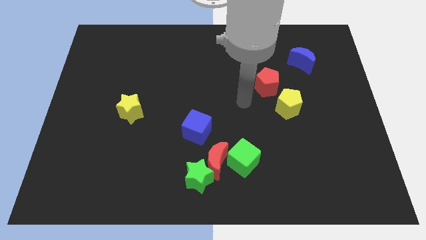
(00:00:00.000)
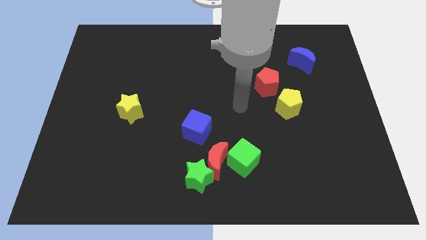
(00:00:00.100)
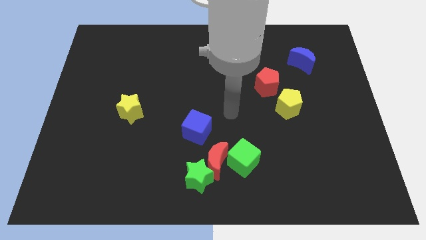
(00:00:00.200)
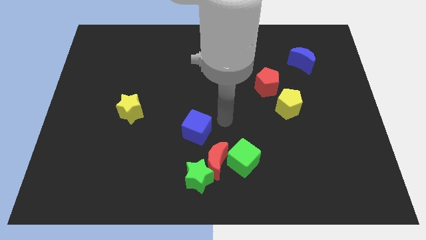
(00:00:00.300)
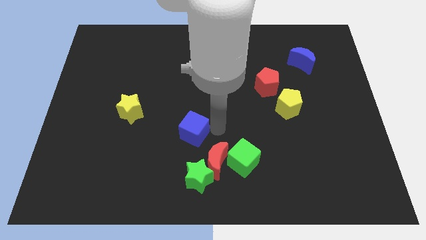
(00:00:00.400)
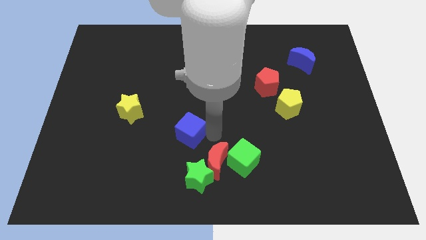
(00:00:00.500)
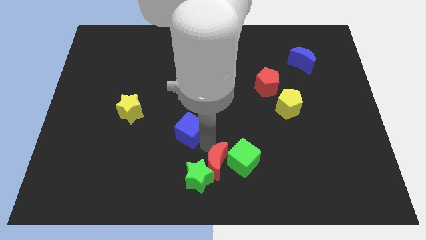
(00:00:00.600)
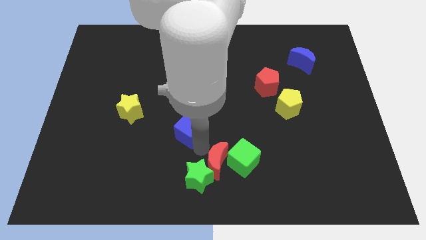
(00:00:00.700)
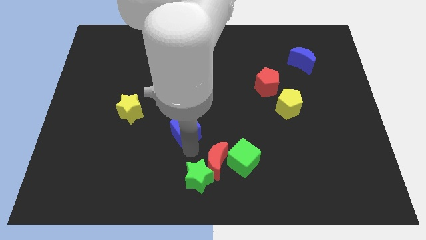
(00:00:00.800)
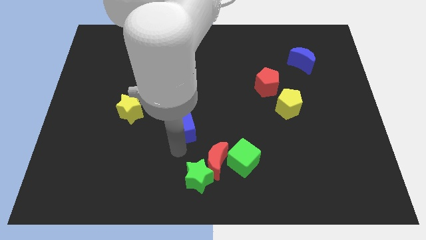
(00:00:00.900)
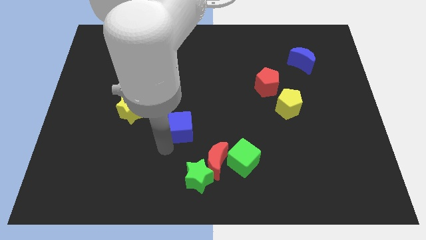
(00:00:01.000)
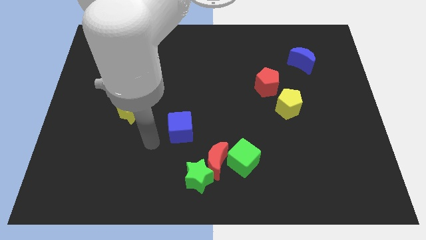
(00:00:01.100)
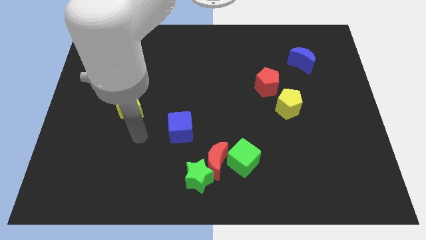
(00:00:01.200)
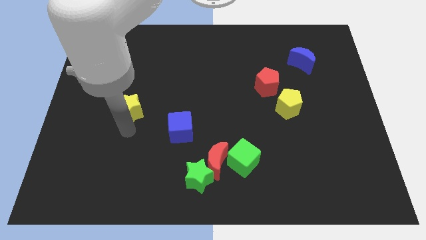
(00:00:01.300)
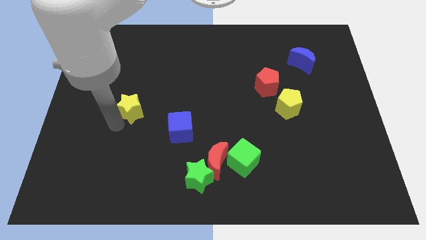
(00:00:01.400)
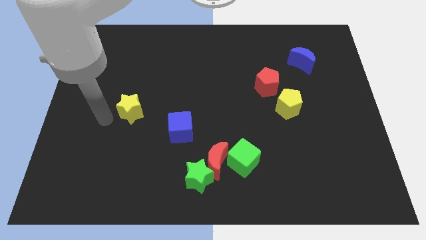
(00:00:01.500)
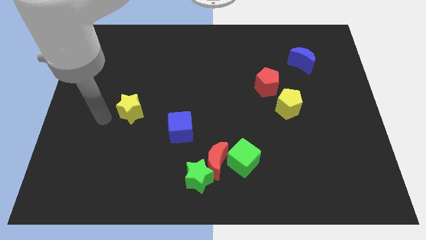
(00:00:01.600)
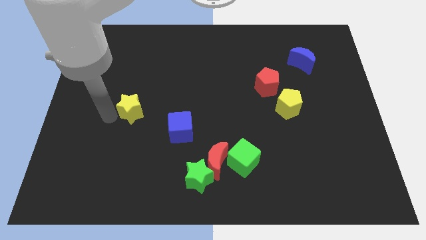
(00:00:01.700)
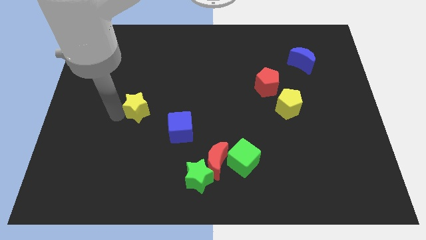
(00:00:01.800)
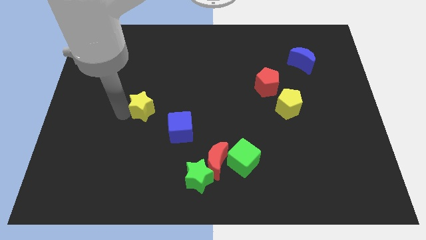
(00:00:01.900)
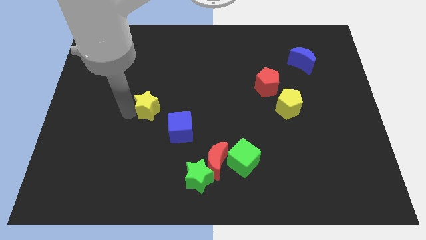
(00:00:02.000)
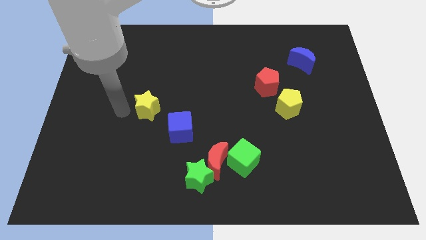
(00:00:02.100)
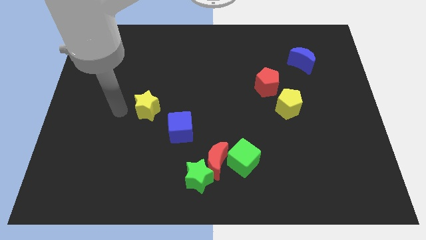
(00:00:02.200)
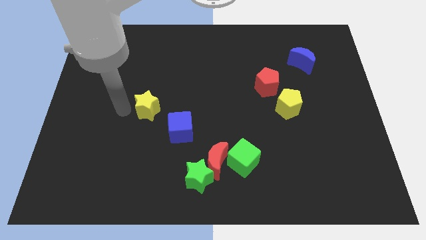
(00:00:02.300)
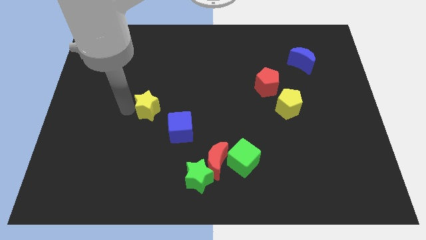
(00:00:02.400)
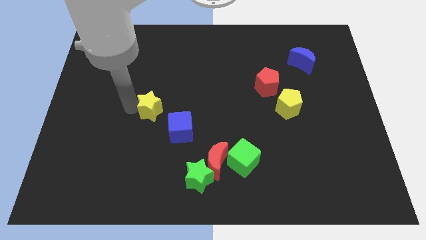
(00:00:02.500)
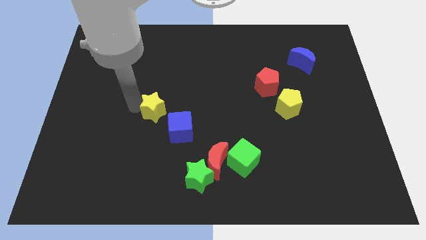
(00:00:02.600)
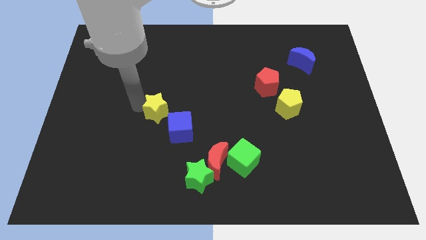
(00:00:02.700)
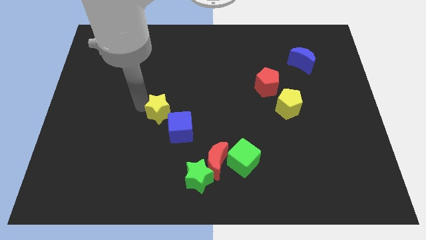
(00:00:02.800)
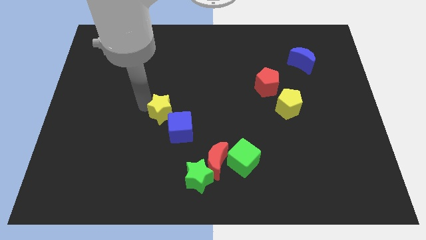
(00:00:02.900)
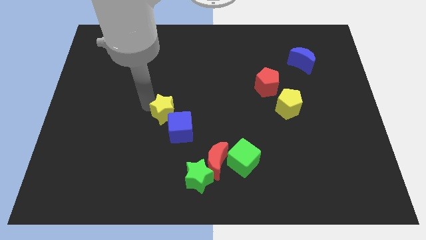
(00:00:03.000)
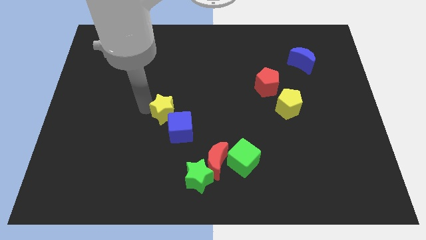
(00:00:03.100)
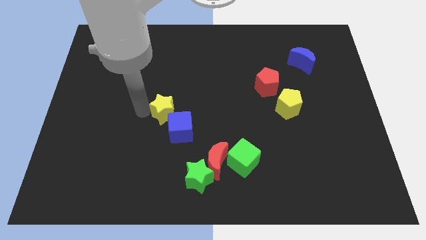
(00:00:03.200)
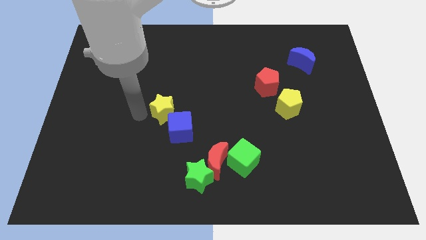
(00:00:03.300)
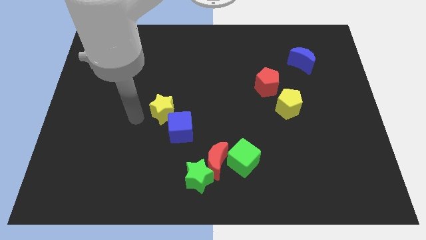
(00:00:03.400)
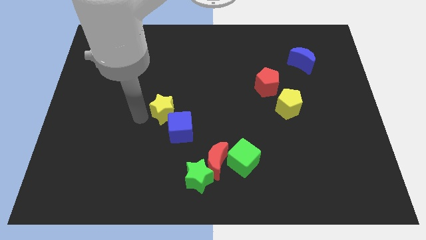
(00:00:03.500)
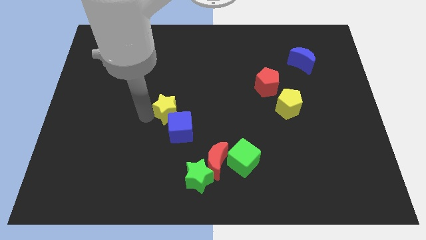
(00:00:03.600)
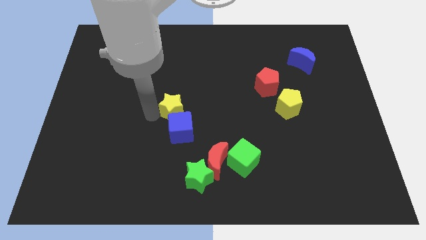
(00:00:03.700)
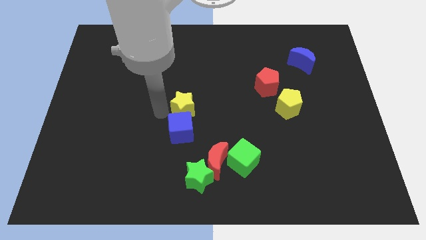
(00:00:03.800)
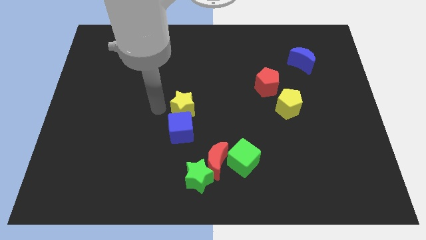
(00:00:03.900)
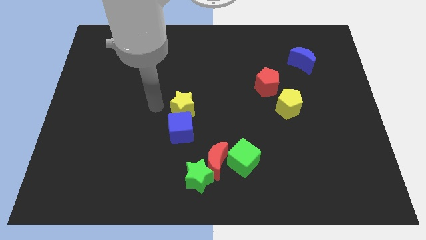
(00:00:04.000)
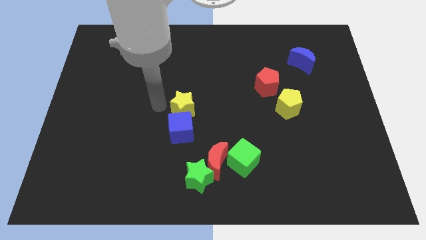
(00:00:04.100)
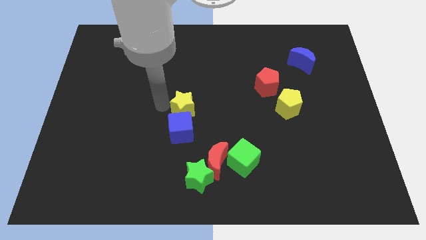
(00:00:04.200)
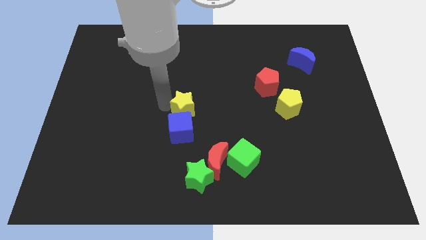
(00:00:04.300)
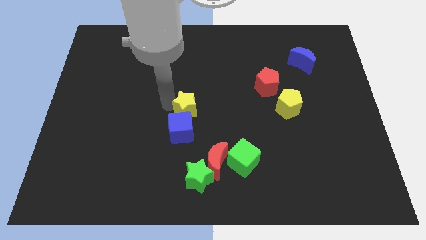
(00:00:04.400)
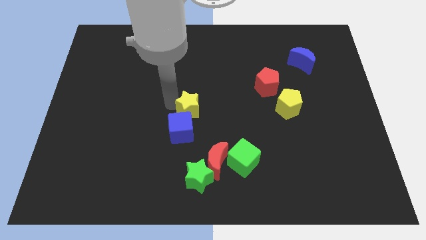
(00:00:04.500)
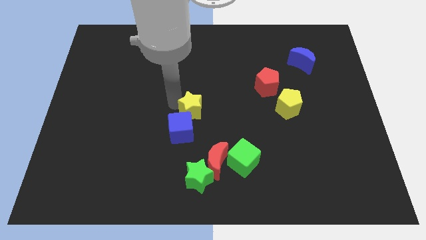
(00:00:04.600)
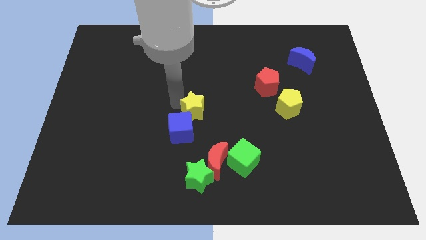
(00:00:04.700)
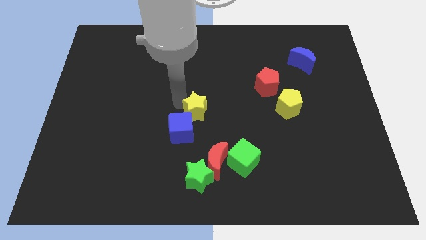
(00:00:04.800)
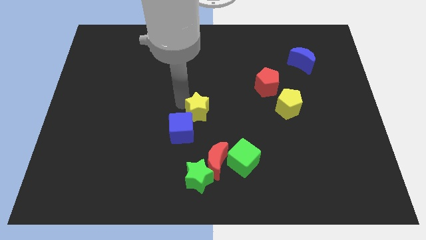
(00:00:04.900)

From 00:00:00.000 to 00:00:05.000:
move the yellow star to the top side of the red moon

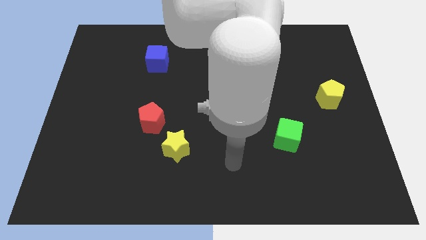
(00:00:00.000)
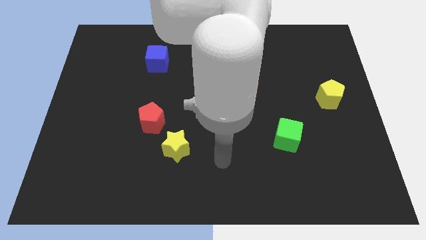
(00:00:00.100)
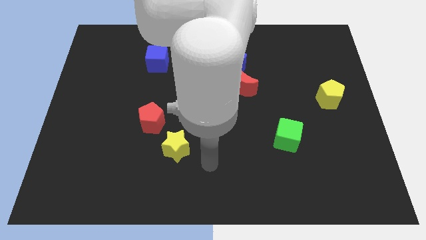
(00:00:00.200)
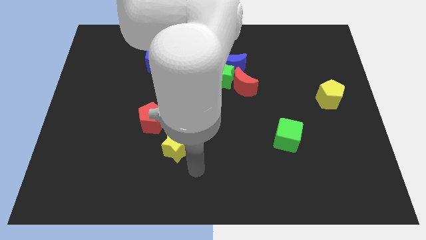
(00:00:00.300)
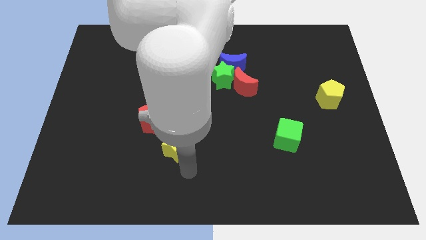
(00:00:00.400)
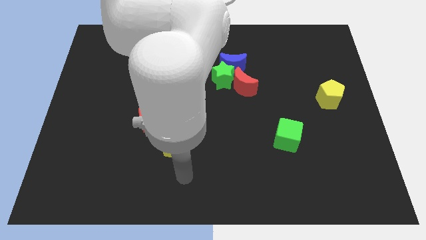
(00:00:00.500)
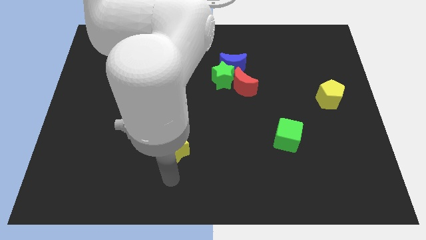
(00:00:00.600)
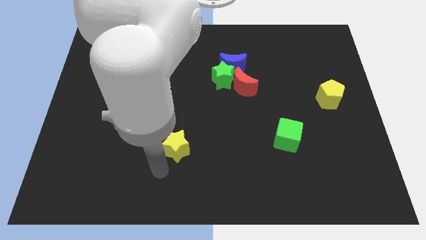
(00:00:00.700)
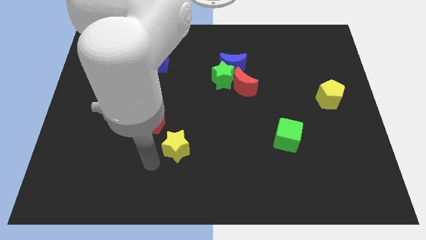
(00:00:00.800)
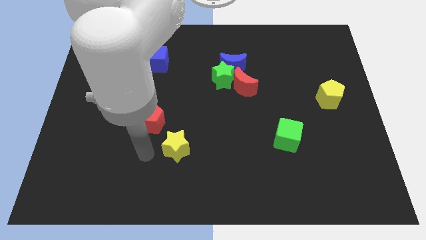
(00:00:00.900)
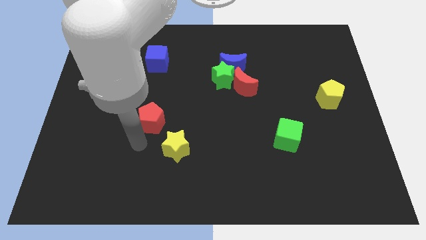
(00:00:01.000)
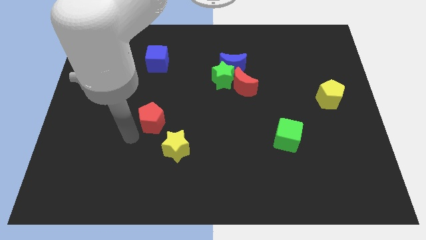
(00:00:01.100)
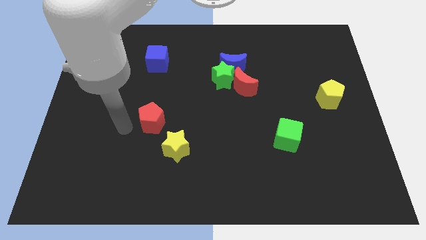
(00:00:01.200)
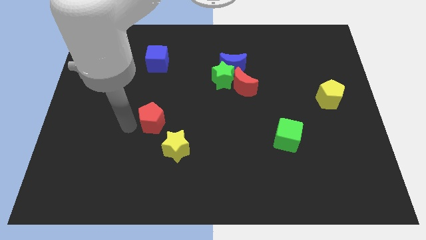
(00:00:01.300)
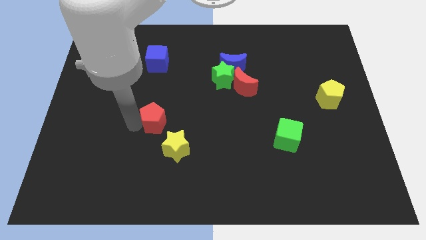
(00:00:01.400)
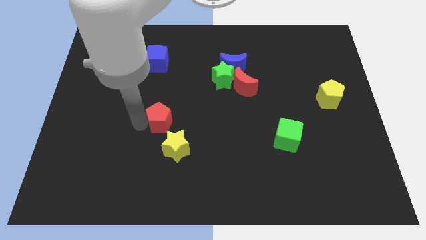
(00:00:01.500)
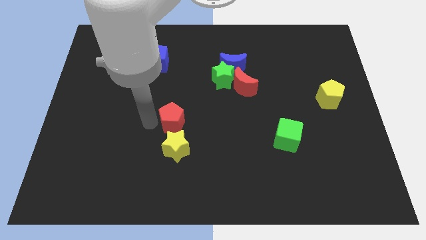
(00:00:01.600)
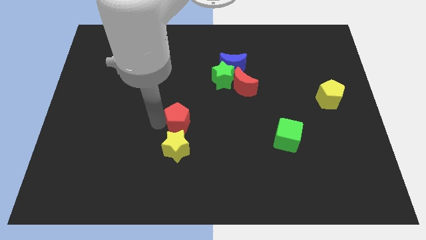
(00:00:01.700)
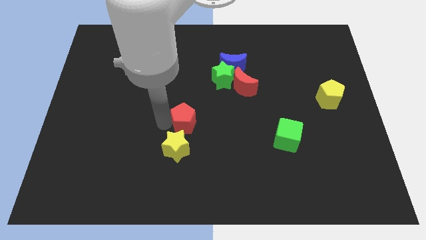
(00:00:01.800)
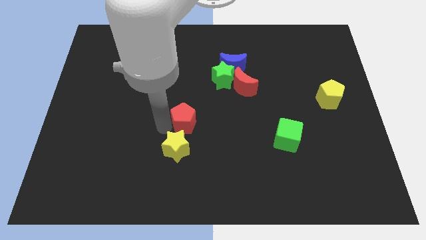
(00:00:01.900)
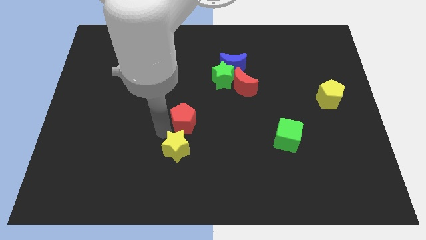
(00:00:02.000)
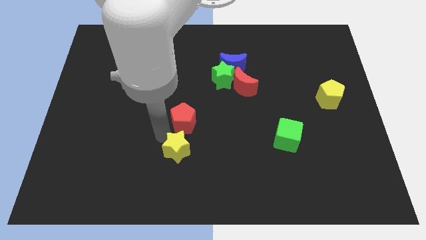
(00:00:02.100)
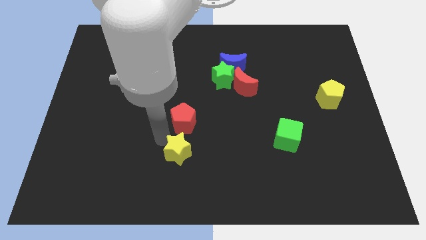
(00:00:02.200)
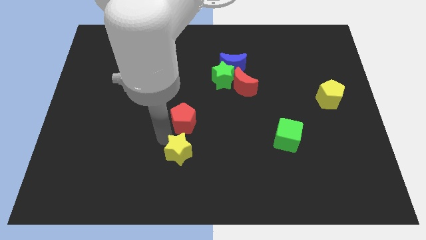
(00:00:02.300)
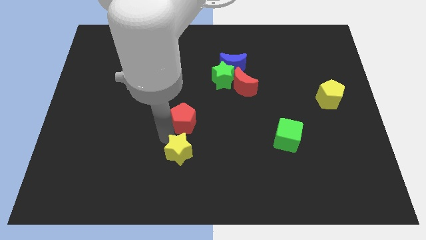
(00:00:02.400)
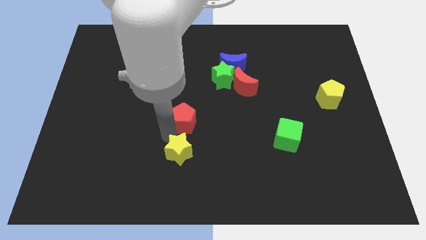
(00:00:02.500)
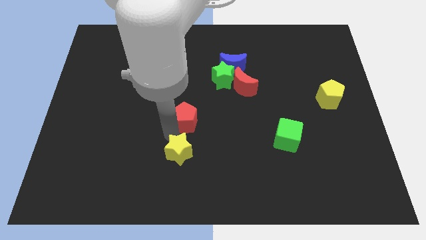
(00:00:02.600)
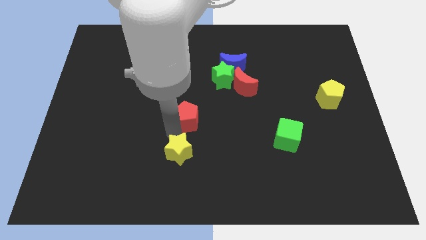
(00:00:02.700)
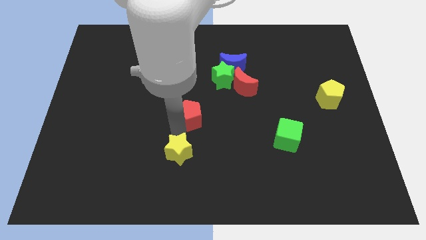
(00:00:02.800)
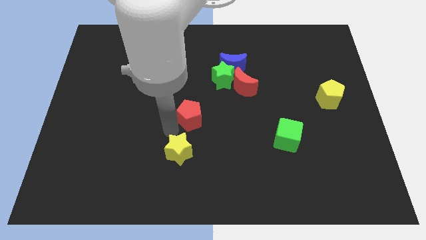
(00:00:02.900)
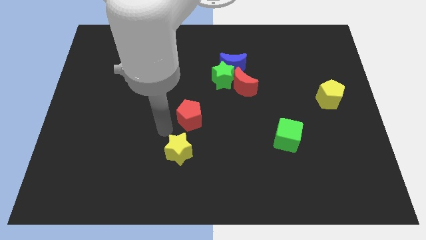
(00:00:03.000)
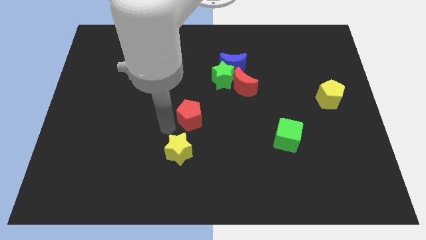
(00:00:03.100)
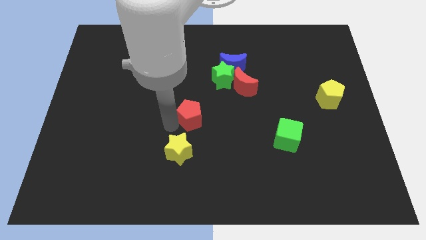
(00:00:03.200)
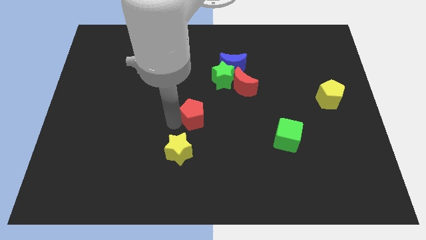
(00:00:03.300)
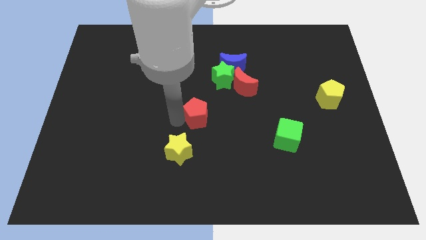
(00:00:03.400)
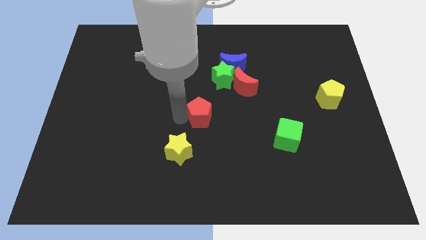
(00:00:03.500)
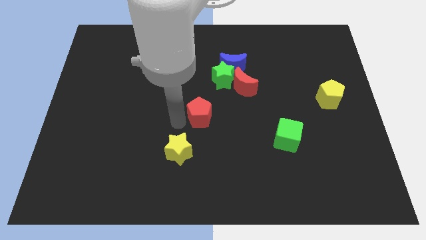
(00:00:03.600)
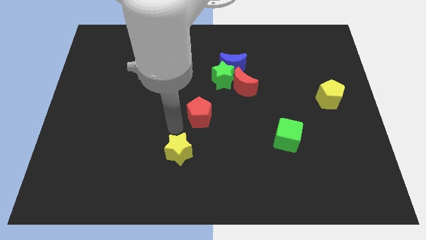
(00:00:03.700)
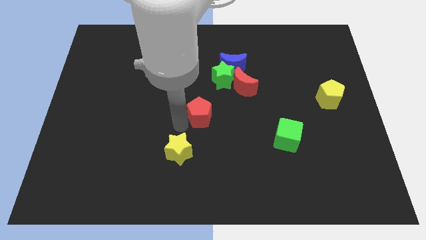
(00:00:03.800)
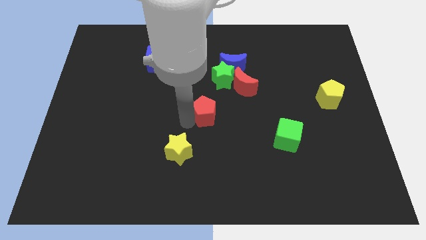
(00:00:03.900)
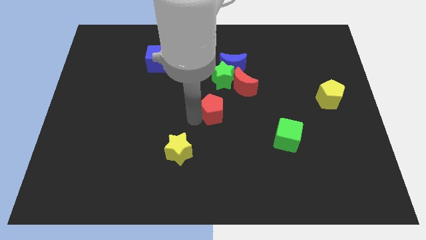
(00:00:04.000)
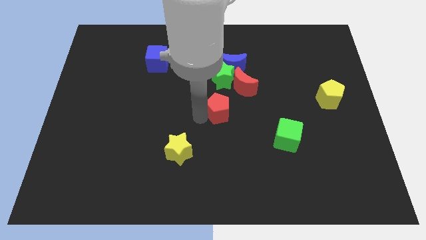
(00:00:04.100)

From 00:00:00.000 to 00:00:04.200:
move the red pentagon to the bottom of the blue moon
